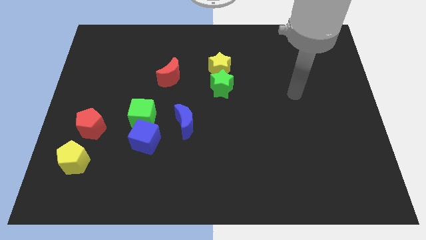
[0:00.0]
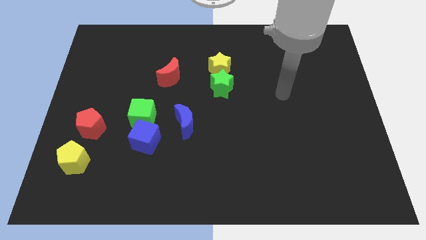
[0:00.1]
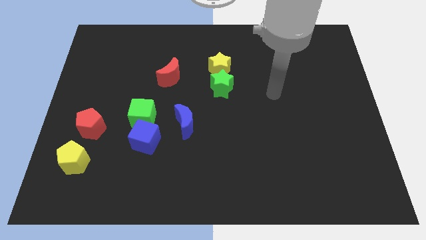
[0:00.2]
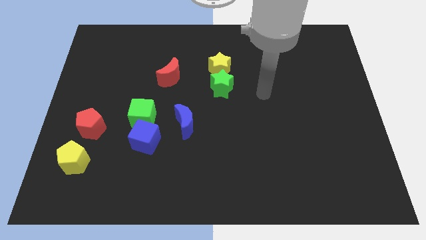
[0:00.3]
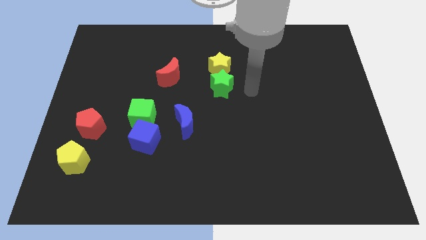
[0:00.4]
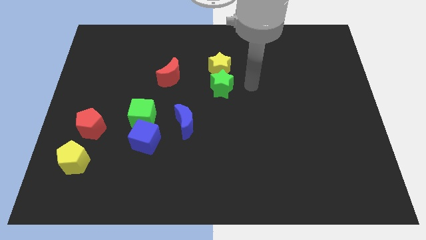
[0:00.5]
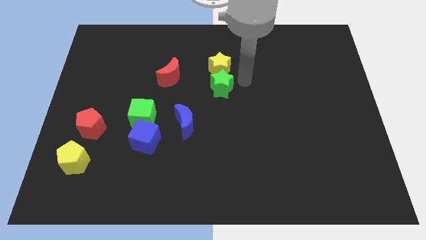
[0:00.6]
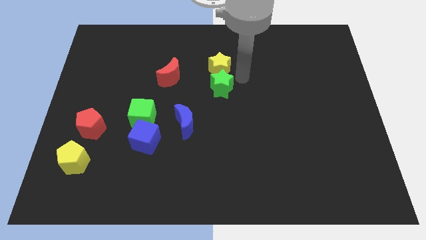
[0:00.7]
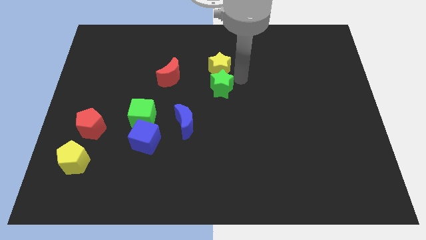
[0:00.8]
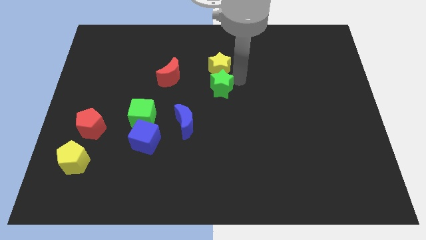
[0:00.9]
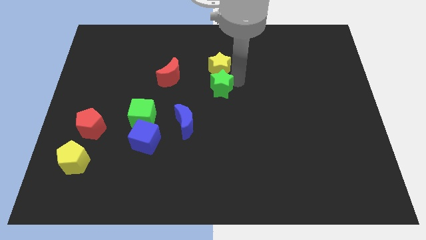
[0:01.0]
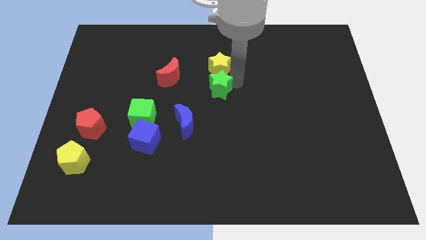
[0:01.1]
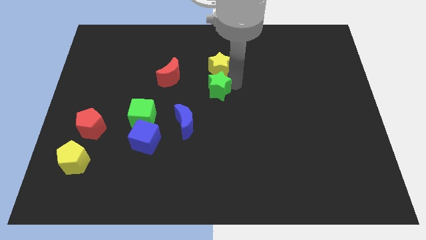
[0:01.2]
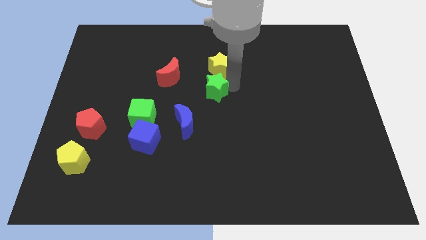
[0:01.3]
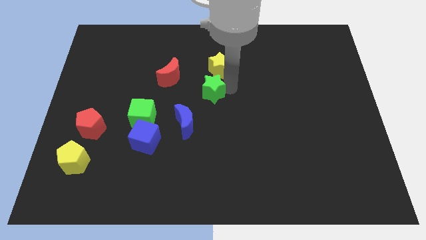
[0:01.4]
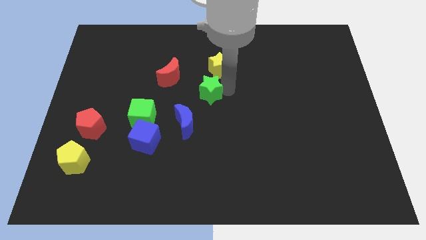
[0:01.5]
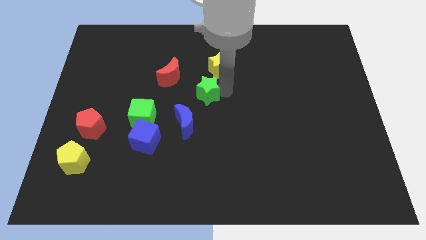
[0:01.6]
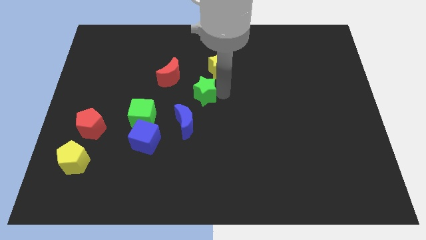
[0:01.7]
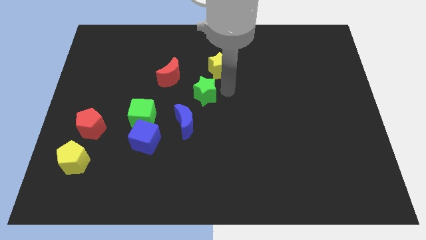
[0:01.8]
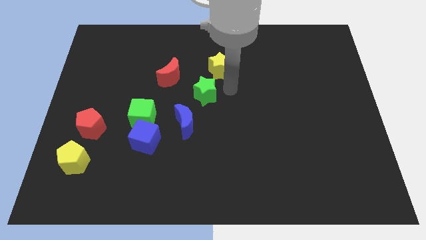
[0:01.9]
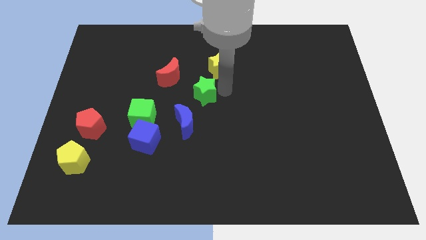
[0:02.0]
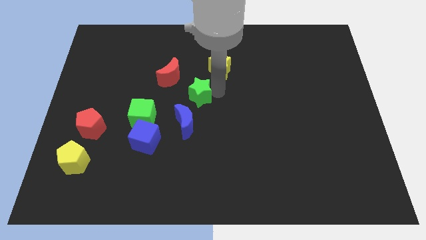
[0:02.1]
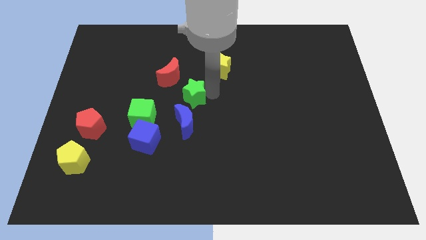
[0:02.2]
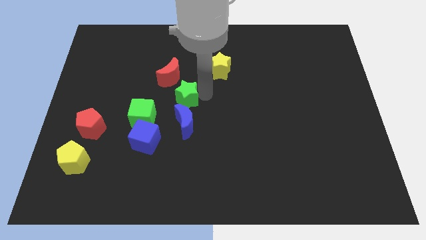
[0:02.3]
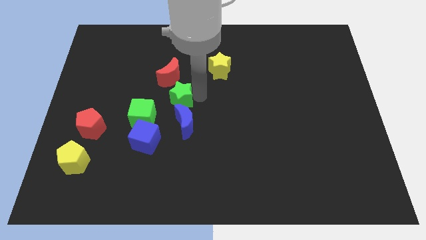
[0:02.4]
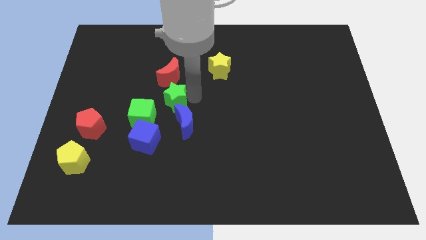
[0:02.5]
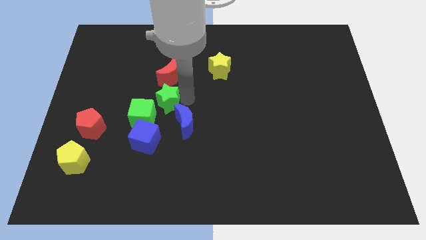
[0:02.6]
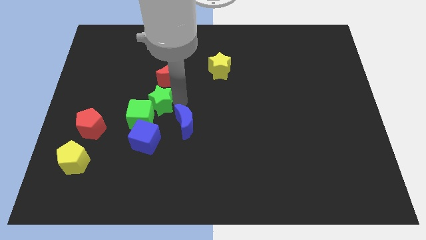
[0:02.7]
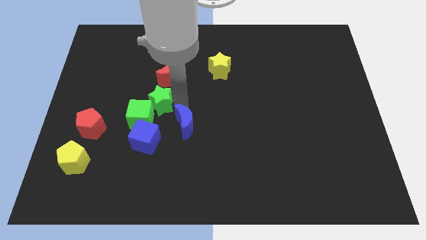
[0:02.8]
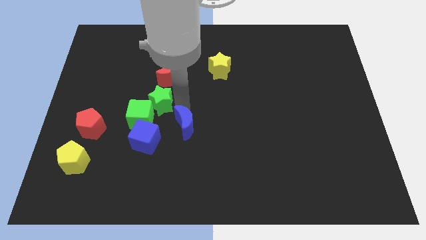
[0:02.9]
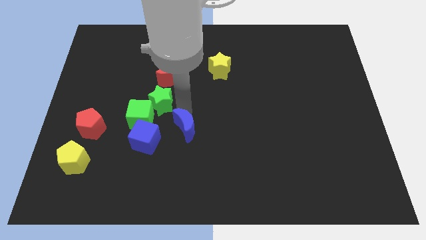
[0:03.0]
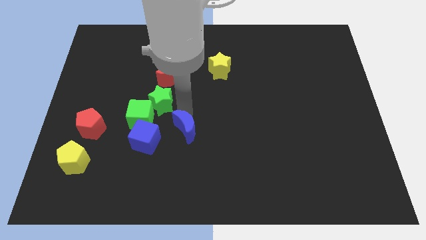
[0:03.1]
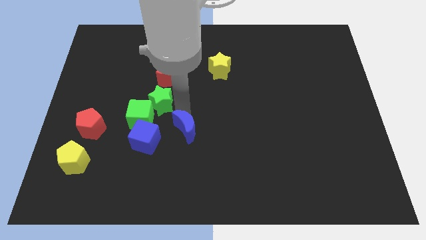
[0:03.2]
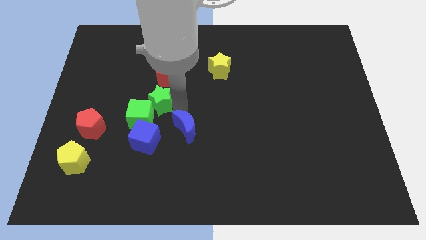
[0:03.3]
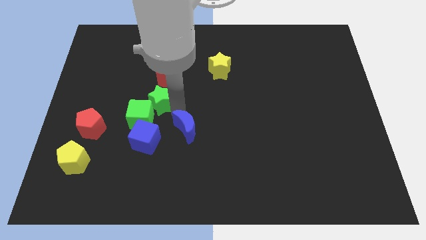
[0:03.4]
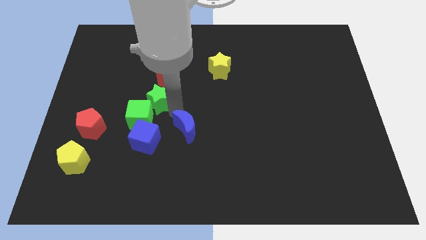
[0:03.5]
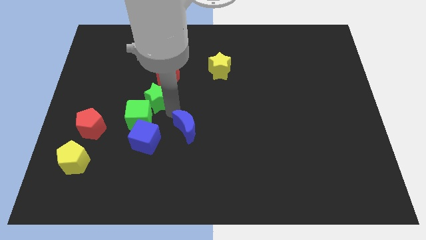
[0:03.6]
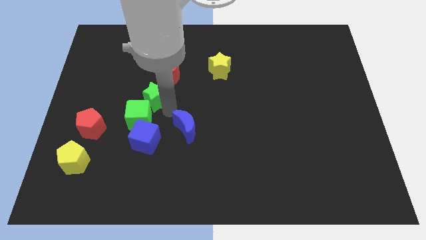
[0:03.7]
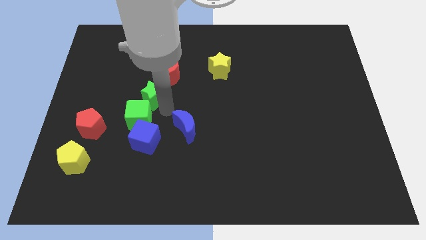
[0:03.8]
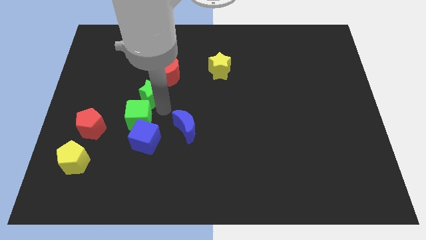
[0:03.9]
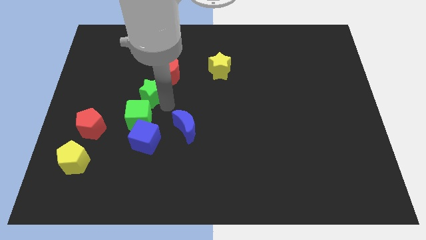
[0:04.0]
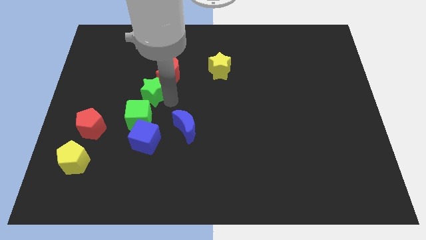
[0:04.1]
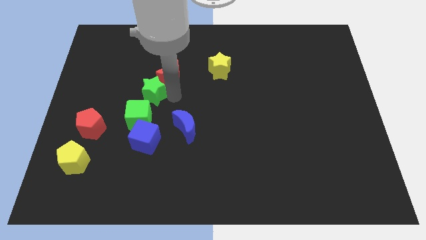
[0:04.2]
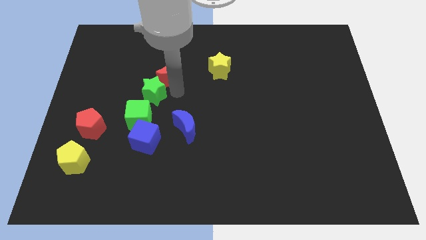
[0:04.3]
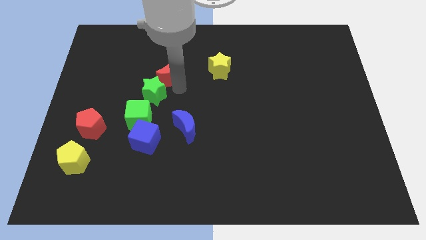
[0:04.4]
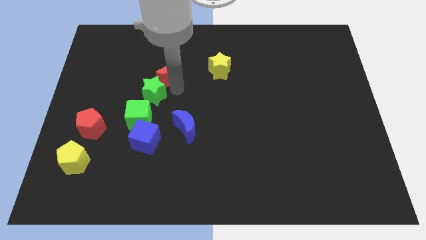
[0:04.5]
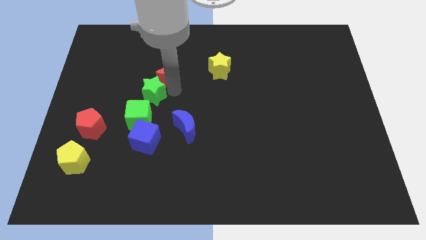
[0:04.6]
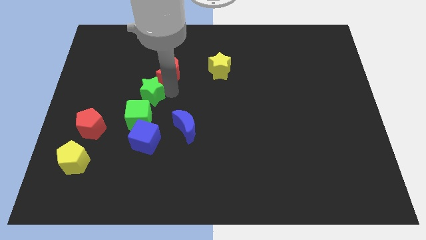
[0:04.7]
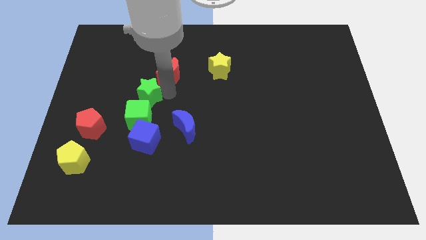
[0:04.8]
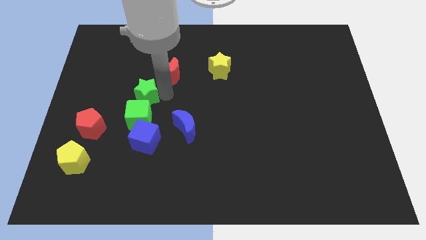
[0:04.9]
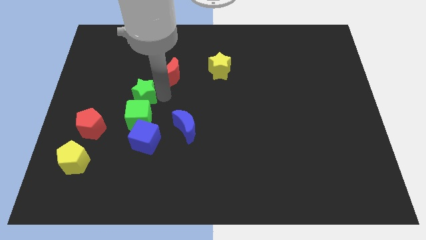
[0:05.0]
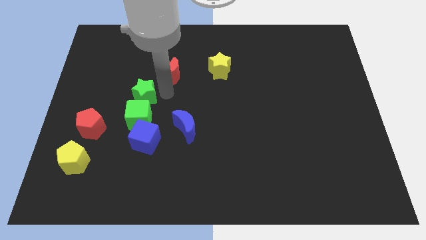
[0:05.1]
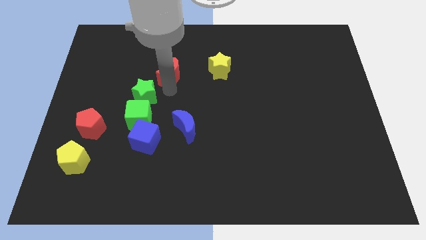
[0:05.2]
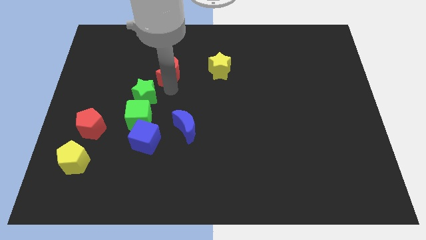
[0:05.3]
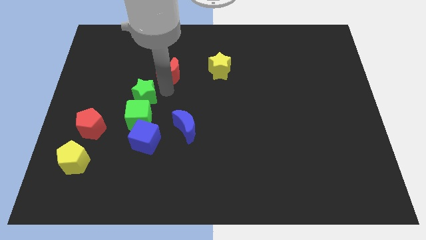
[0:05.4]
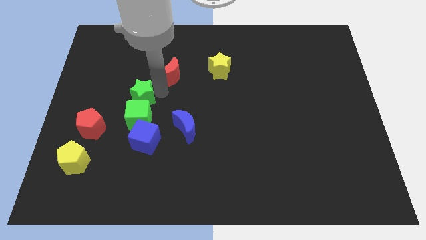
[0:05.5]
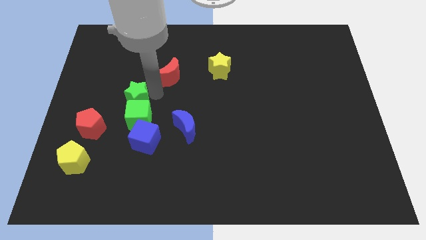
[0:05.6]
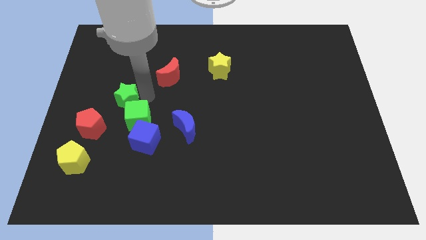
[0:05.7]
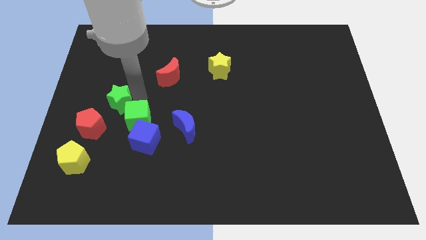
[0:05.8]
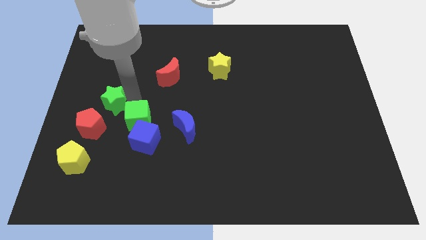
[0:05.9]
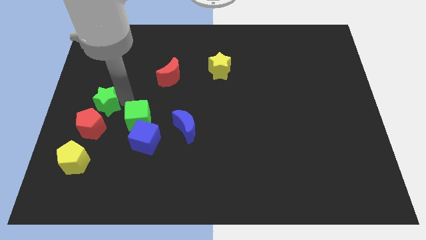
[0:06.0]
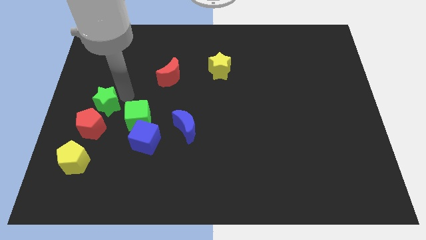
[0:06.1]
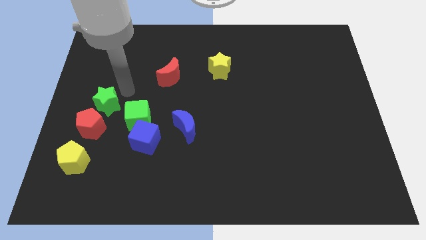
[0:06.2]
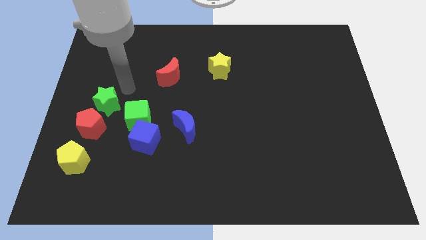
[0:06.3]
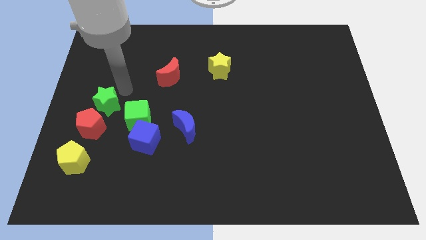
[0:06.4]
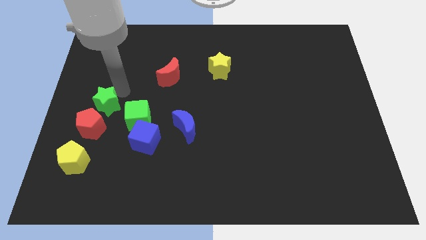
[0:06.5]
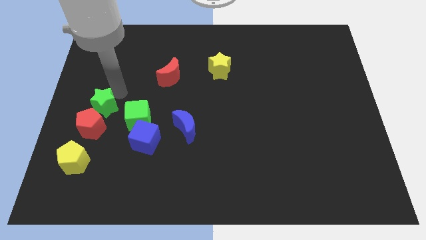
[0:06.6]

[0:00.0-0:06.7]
move the green star above the yellow pentagon
